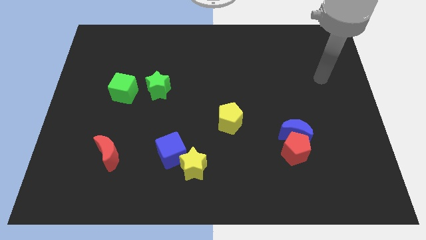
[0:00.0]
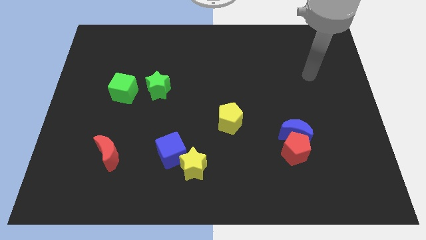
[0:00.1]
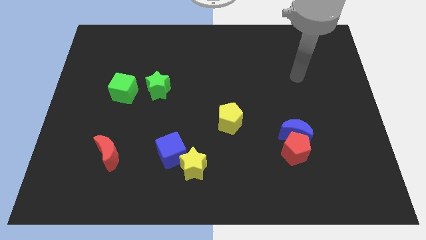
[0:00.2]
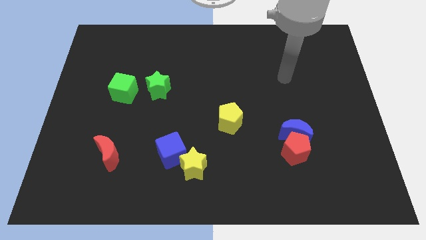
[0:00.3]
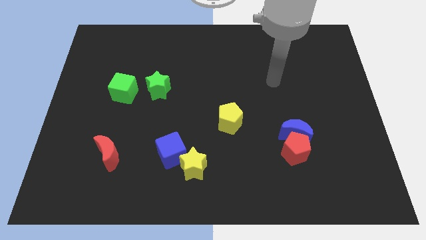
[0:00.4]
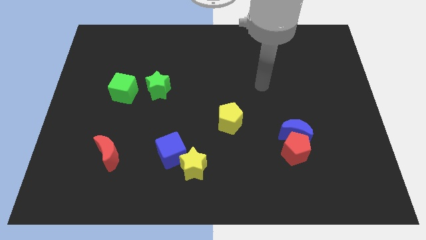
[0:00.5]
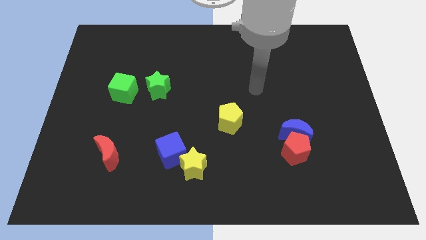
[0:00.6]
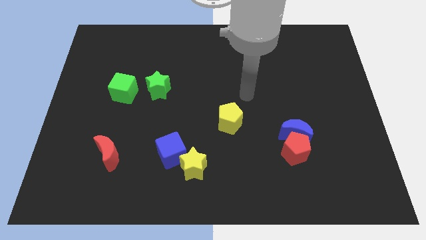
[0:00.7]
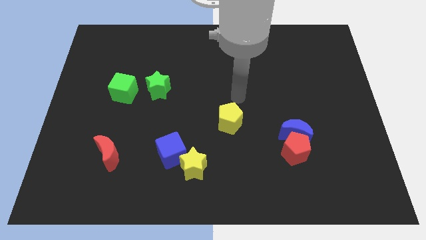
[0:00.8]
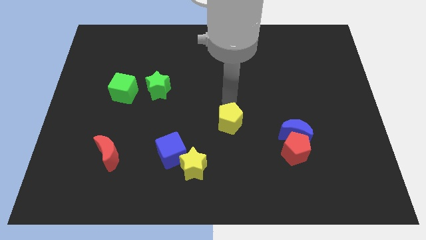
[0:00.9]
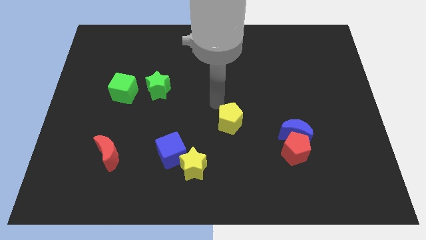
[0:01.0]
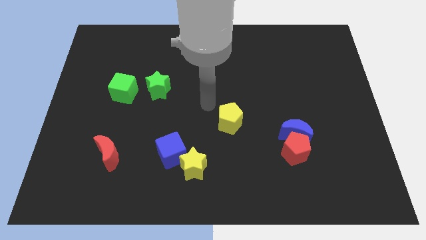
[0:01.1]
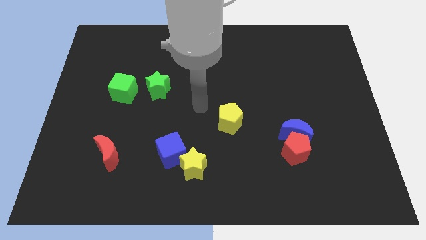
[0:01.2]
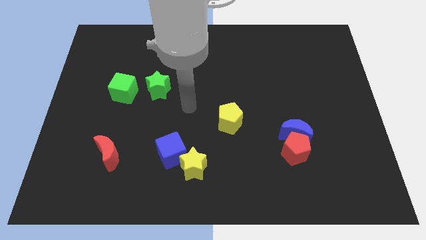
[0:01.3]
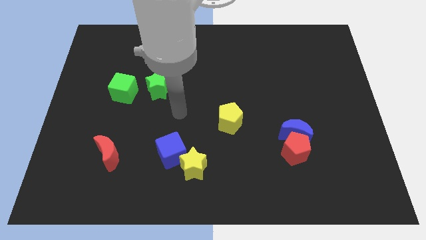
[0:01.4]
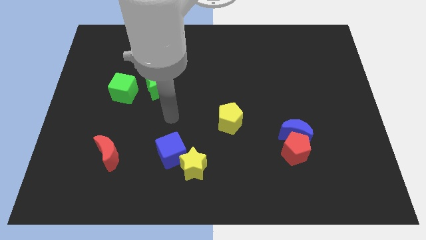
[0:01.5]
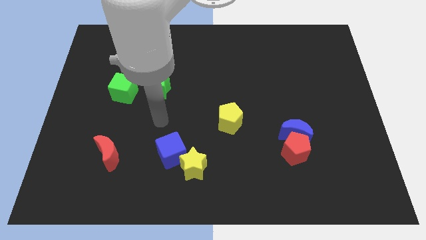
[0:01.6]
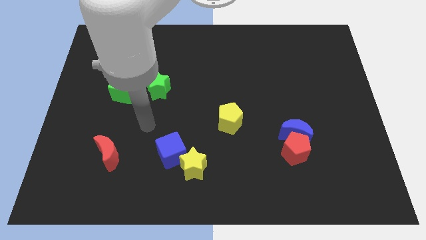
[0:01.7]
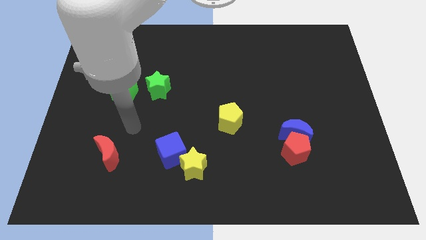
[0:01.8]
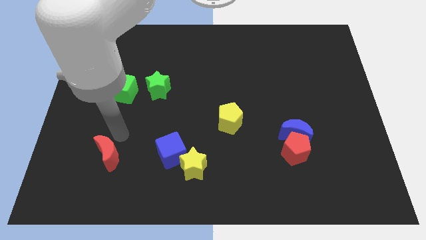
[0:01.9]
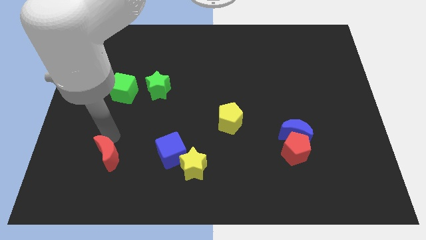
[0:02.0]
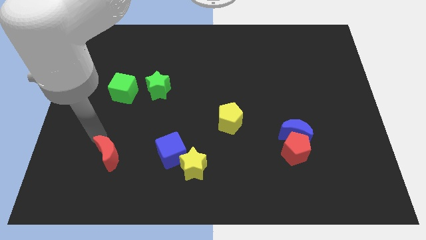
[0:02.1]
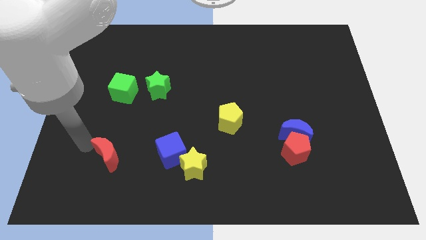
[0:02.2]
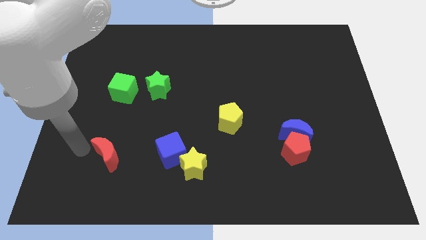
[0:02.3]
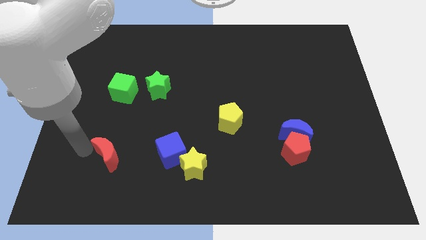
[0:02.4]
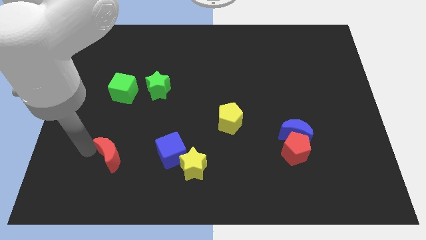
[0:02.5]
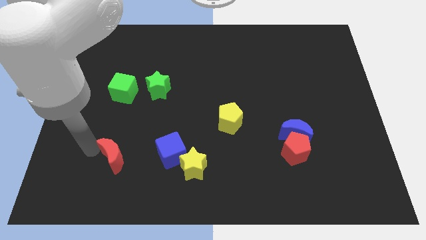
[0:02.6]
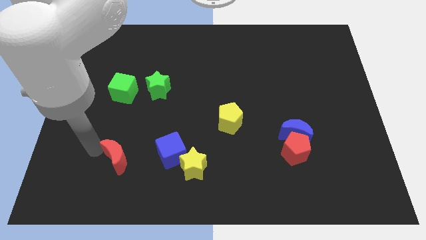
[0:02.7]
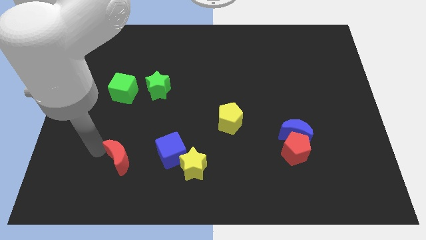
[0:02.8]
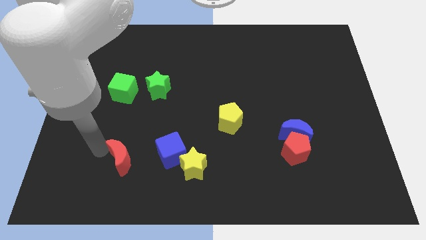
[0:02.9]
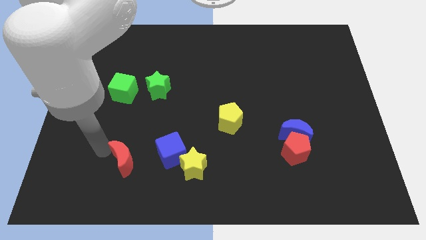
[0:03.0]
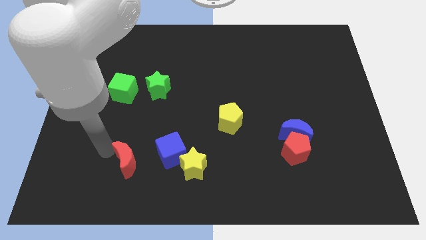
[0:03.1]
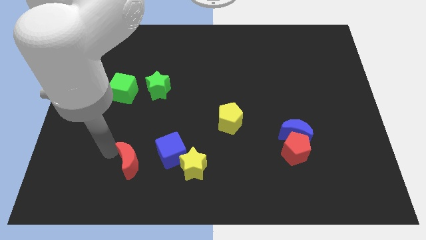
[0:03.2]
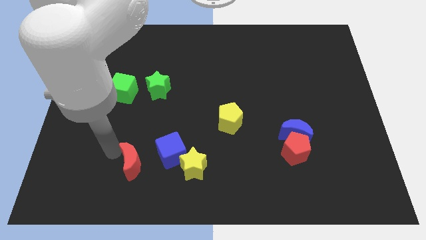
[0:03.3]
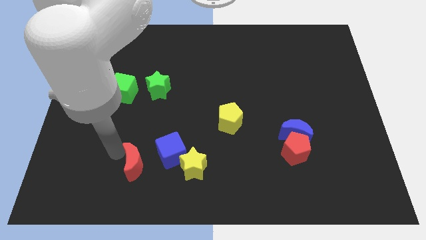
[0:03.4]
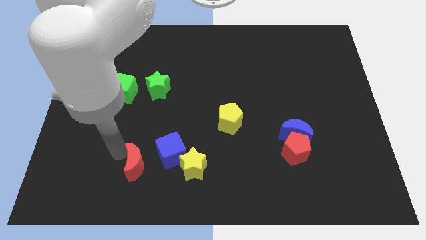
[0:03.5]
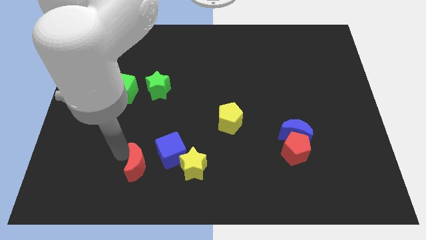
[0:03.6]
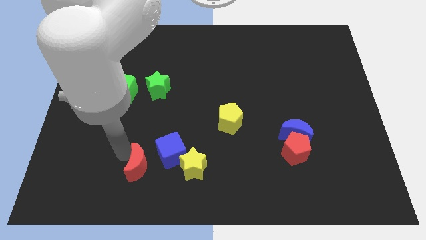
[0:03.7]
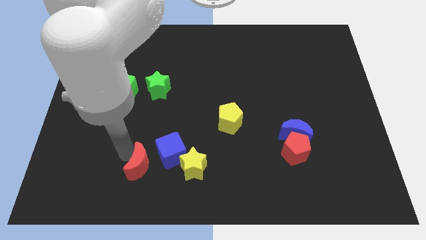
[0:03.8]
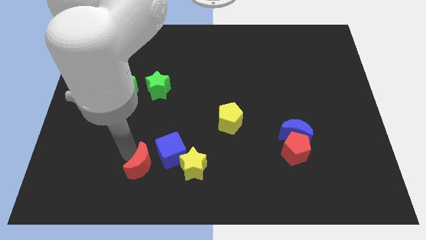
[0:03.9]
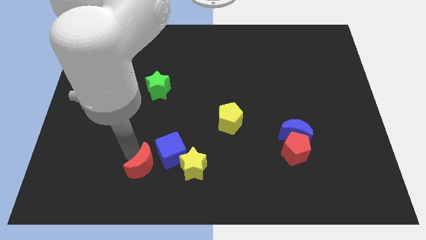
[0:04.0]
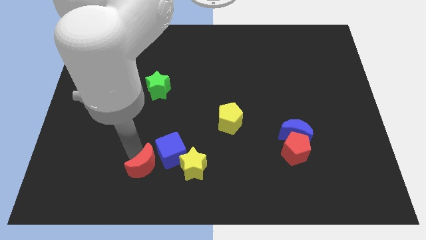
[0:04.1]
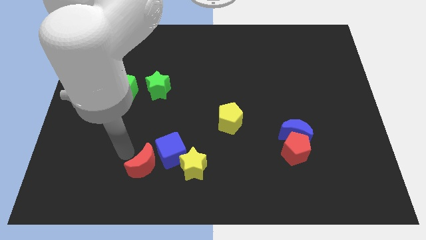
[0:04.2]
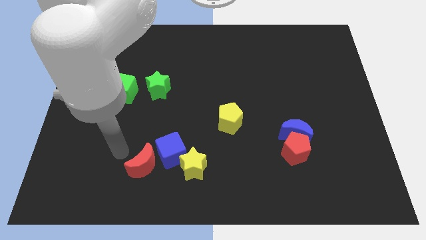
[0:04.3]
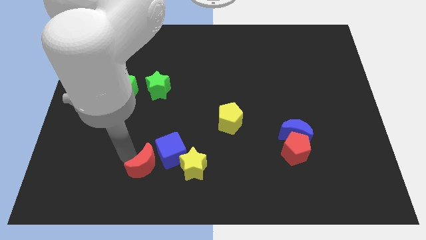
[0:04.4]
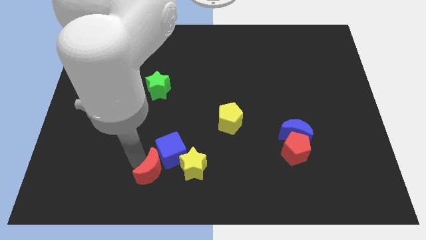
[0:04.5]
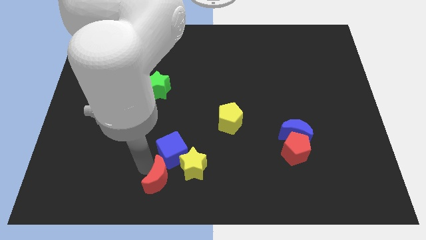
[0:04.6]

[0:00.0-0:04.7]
slide the red moon to the bottom side

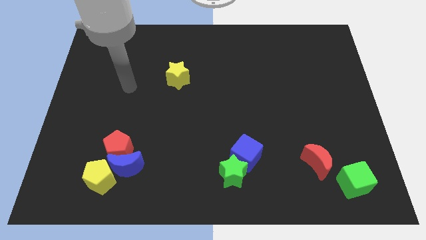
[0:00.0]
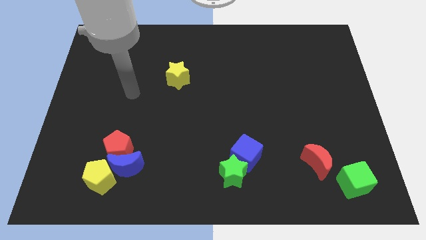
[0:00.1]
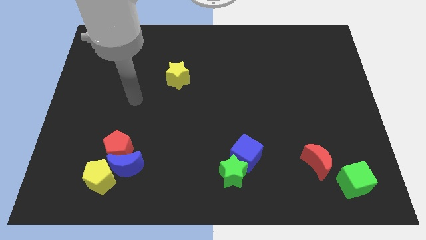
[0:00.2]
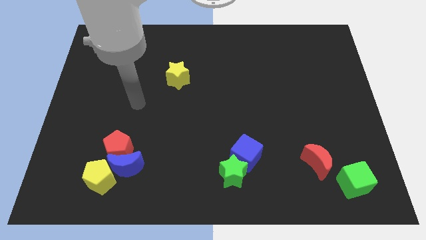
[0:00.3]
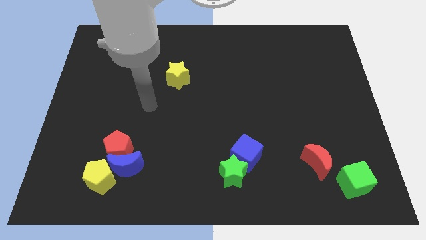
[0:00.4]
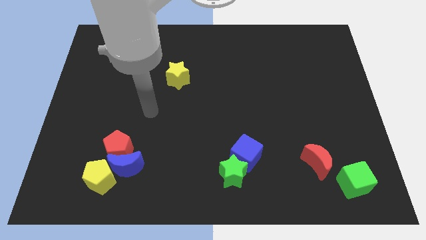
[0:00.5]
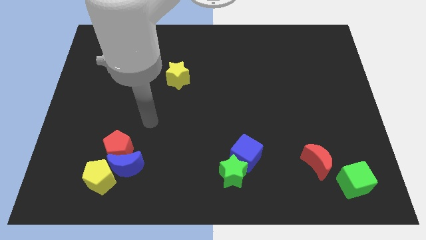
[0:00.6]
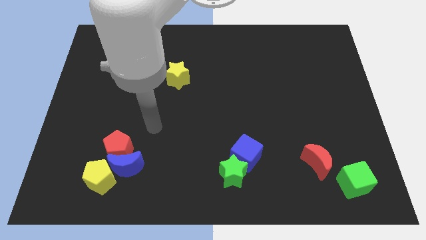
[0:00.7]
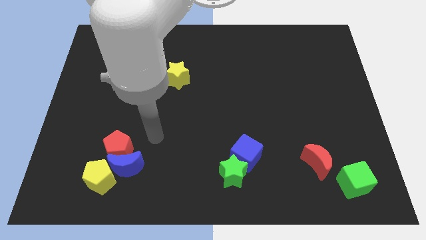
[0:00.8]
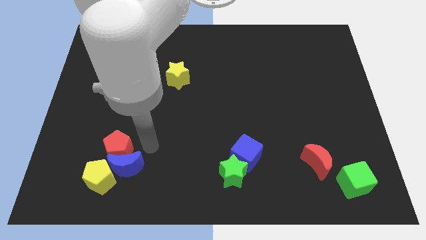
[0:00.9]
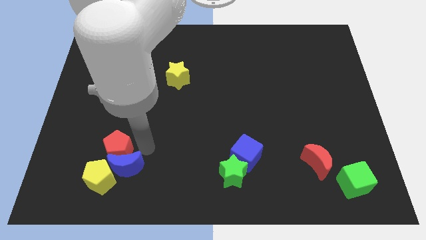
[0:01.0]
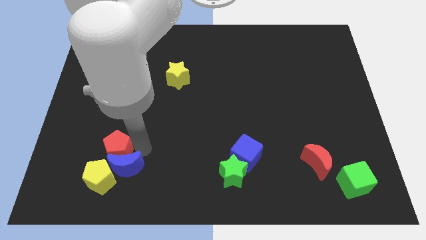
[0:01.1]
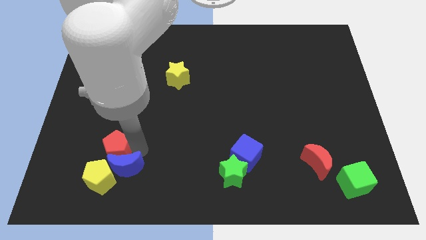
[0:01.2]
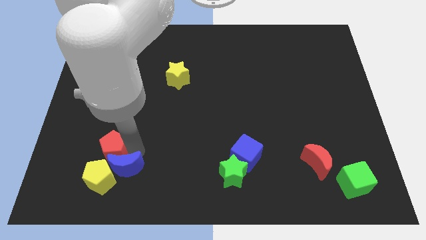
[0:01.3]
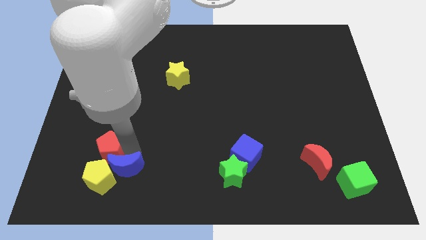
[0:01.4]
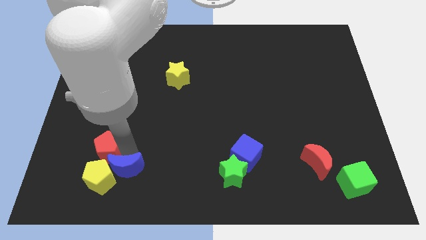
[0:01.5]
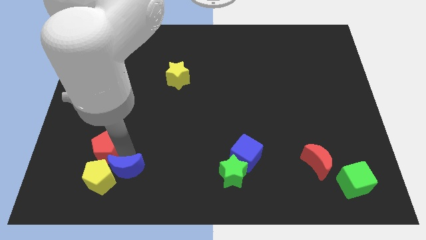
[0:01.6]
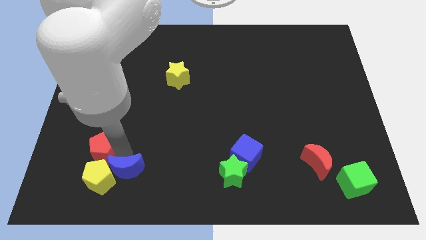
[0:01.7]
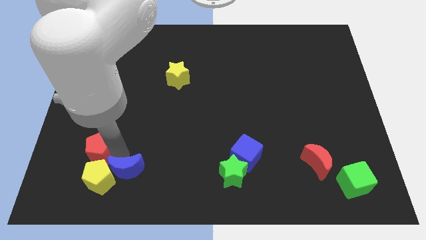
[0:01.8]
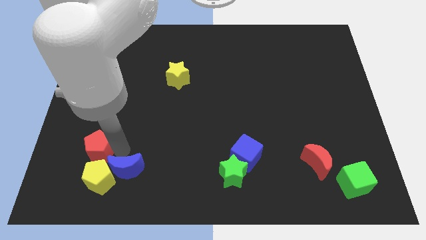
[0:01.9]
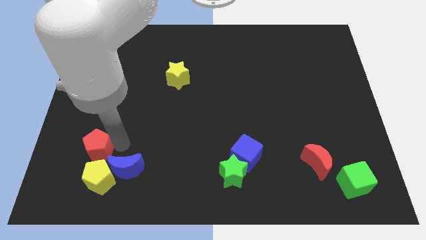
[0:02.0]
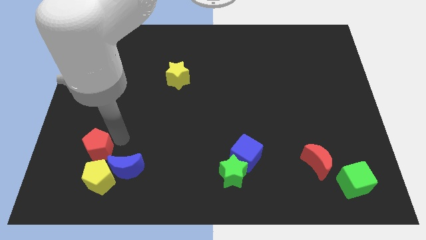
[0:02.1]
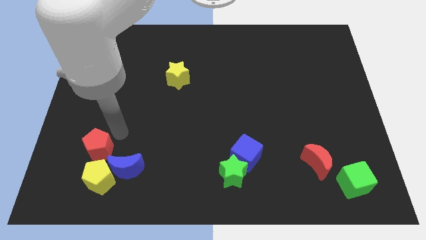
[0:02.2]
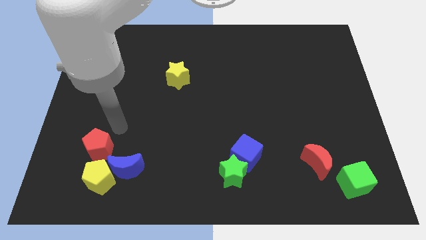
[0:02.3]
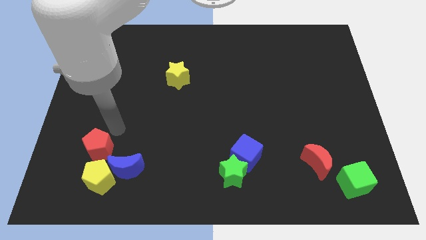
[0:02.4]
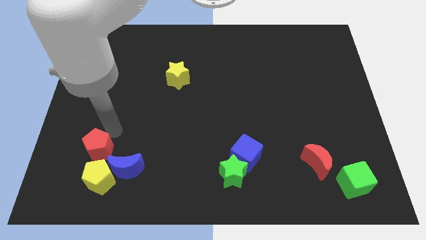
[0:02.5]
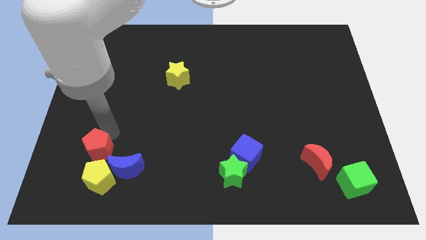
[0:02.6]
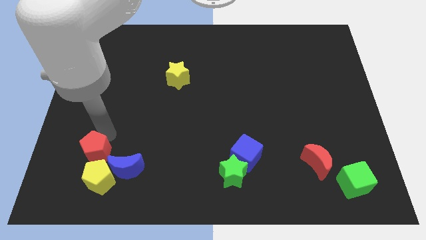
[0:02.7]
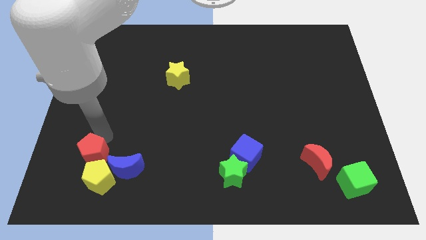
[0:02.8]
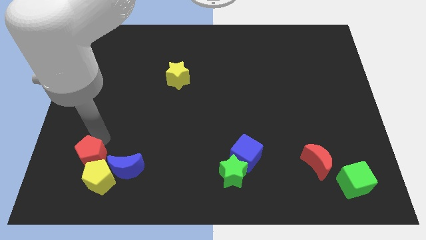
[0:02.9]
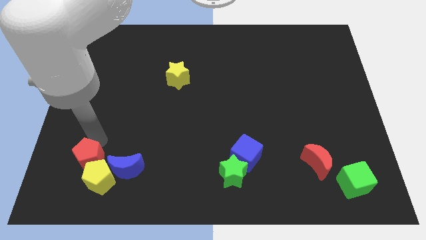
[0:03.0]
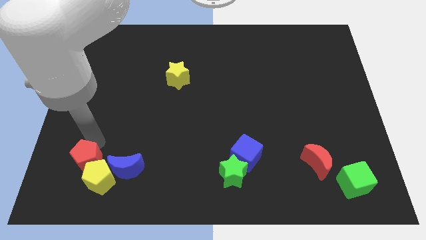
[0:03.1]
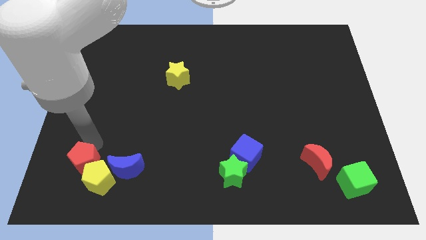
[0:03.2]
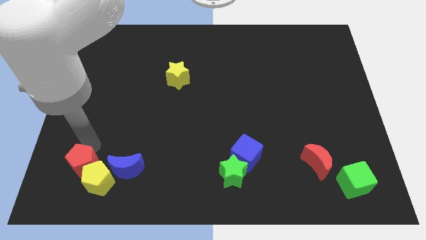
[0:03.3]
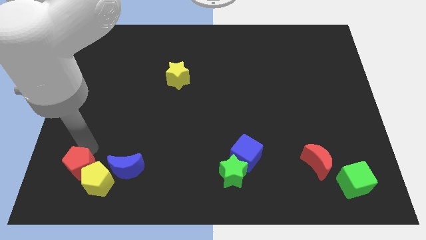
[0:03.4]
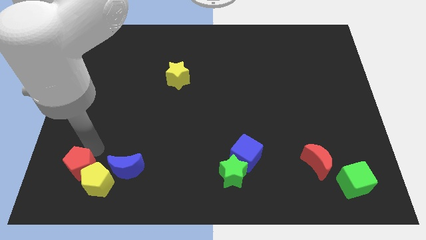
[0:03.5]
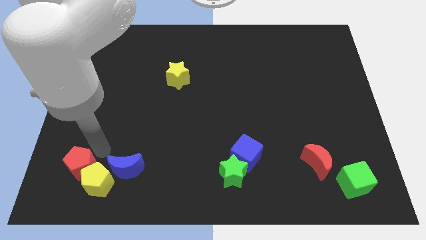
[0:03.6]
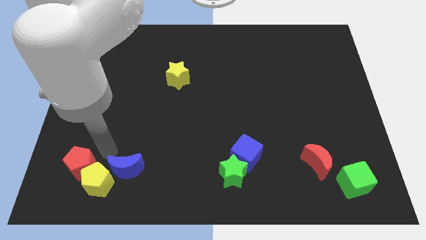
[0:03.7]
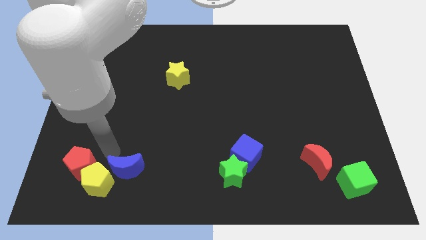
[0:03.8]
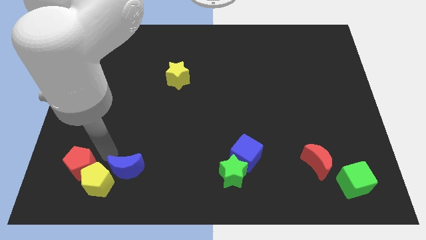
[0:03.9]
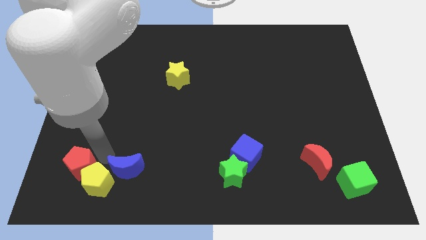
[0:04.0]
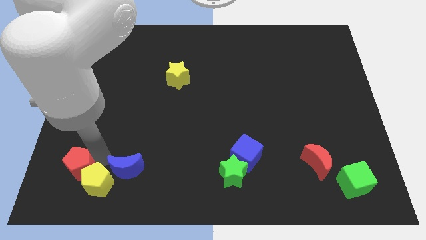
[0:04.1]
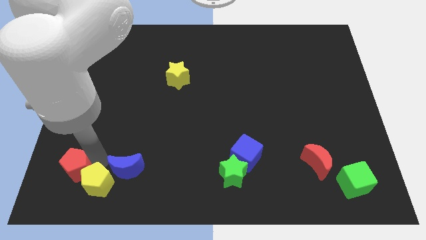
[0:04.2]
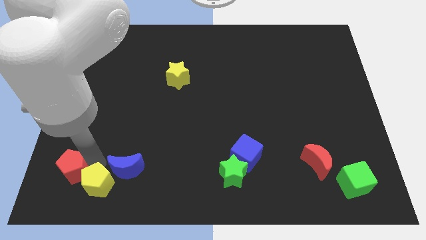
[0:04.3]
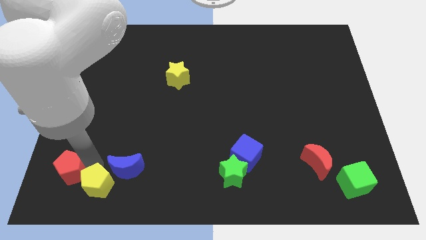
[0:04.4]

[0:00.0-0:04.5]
put the red pentagon to the bottom left
